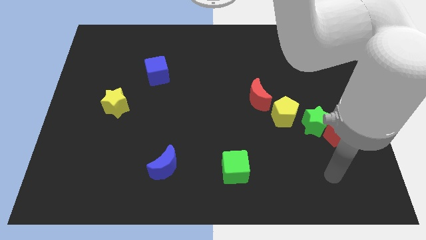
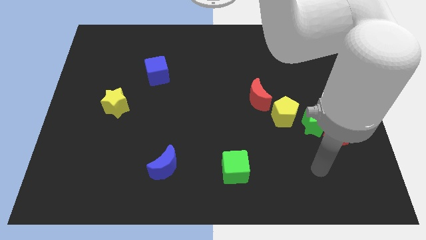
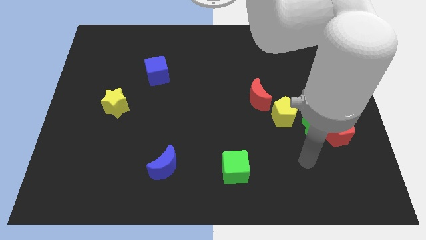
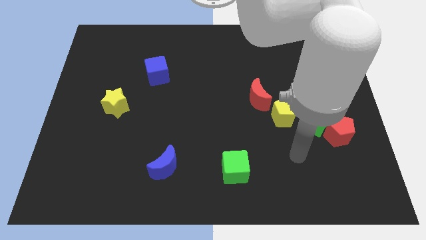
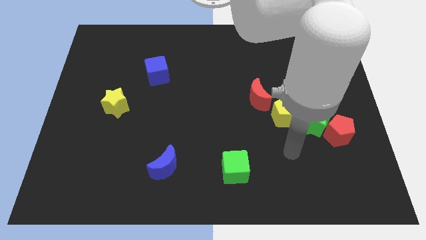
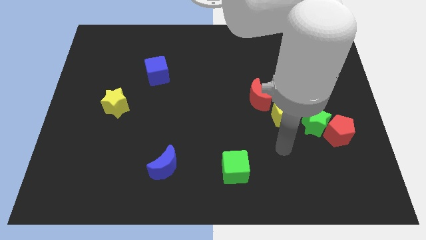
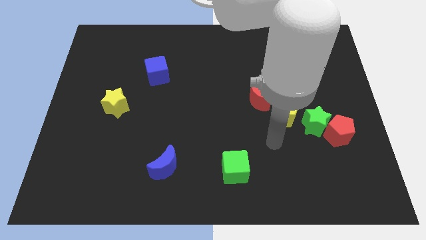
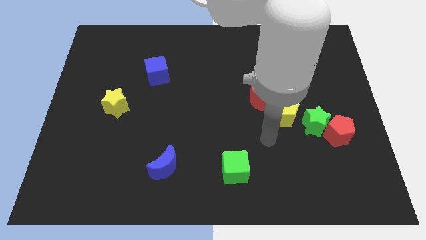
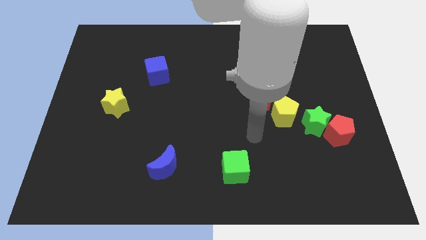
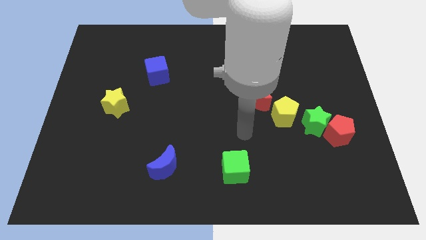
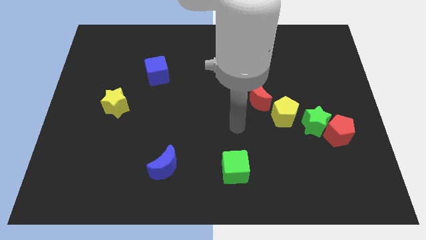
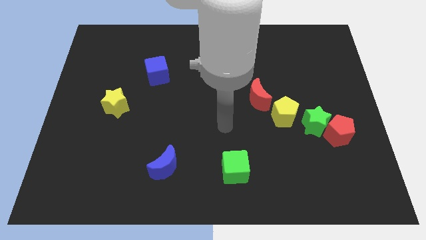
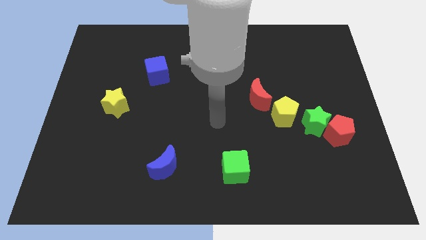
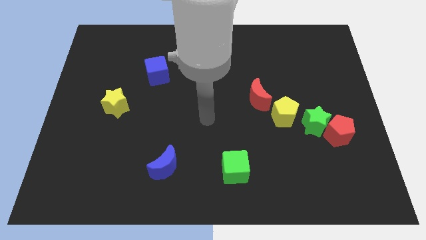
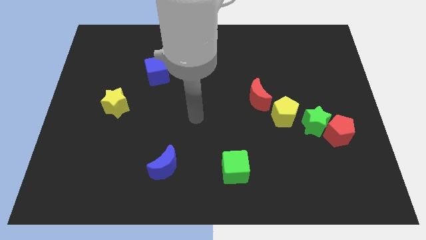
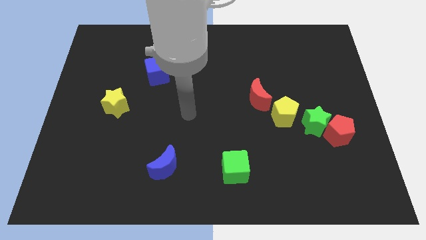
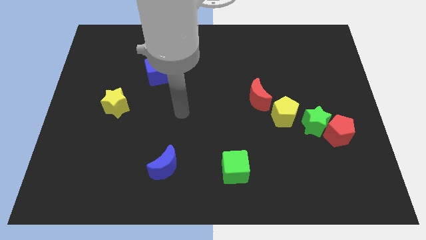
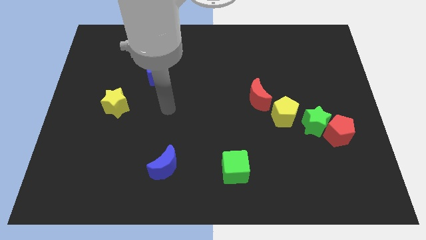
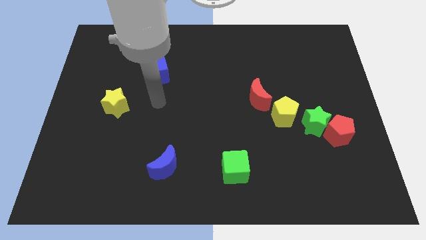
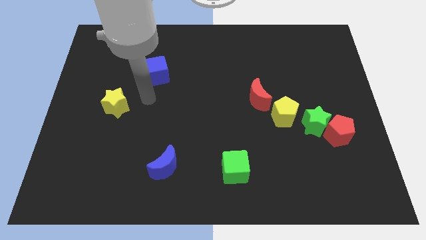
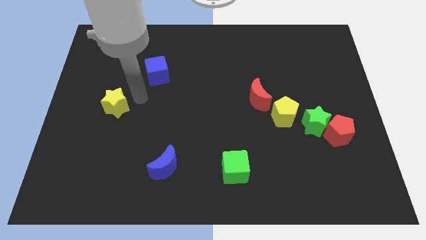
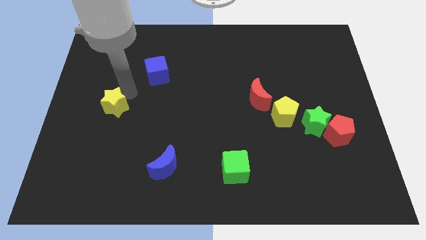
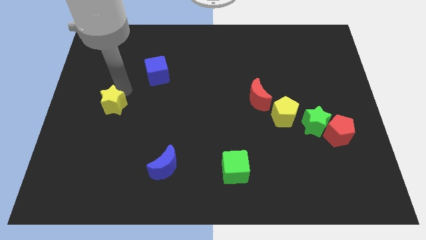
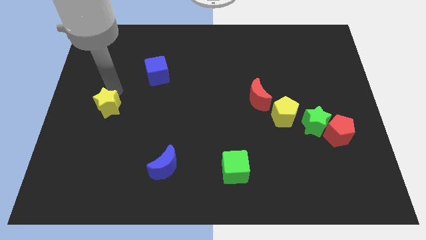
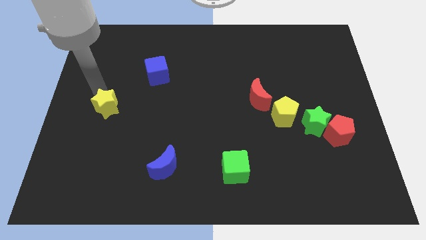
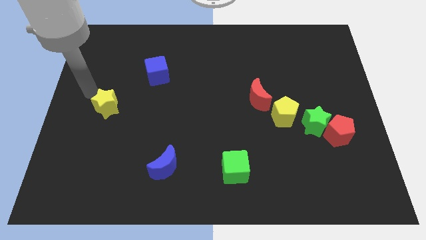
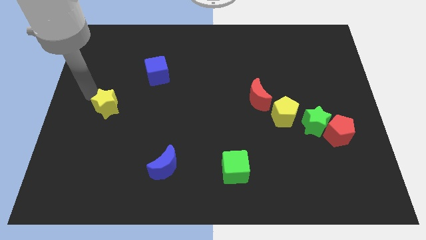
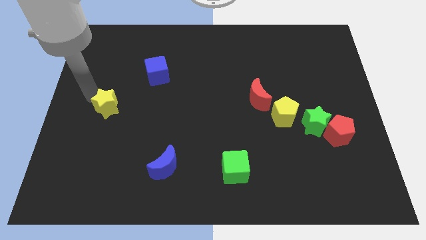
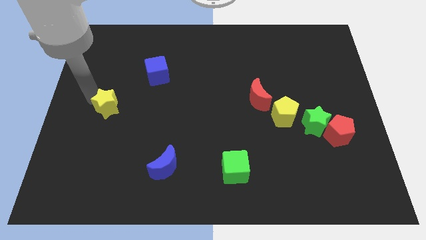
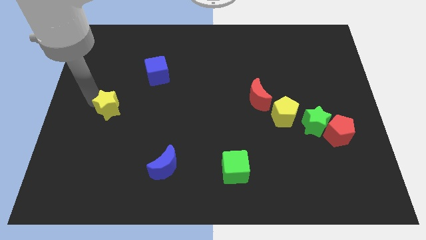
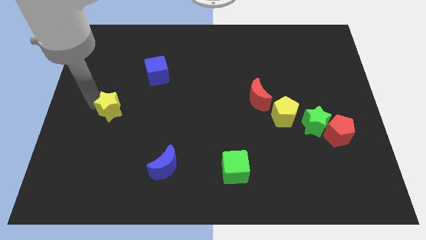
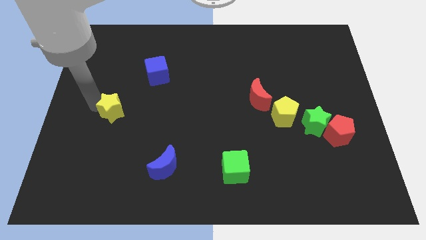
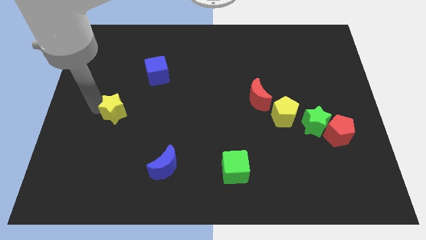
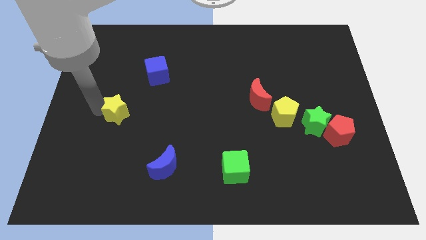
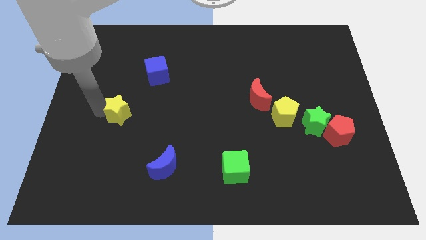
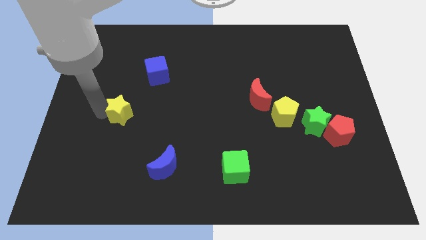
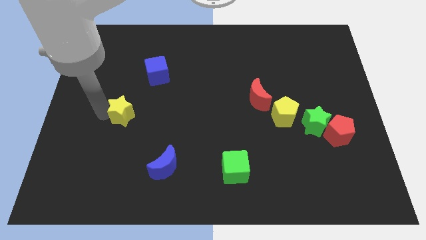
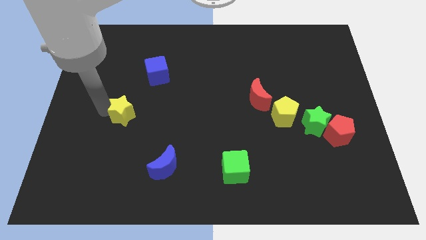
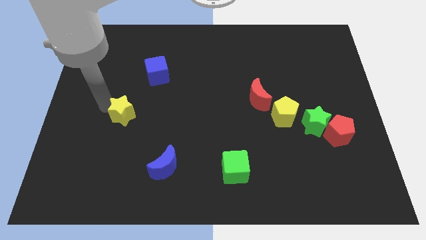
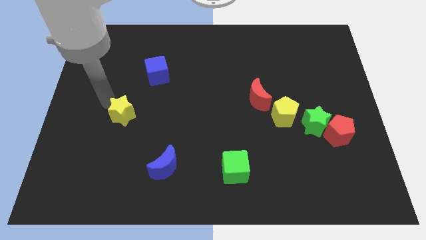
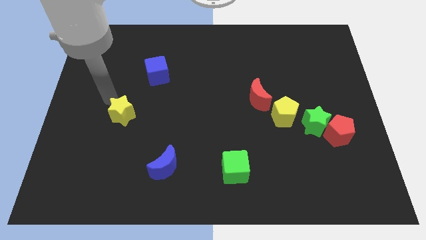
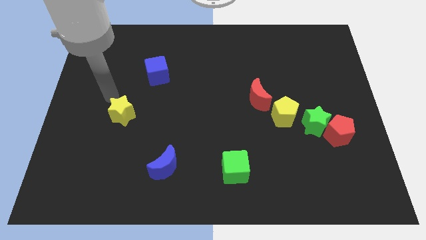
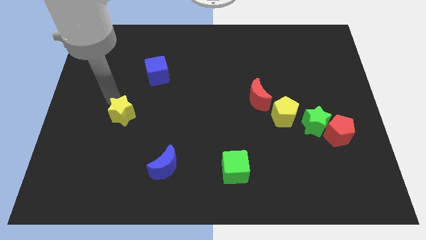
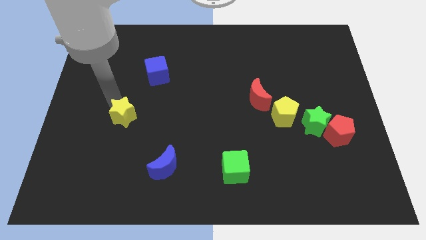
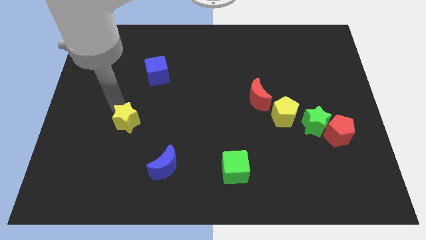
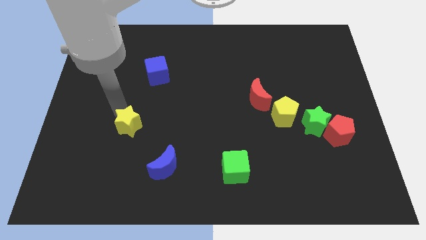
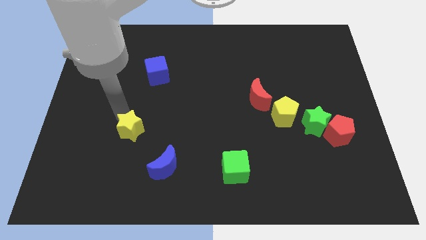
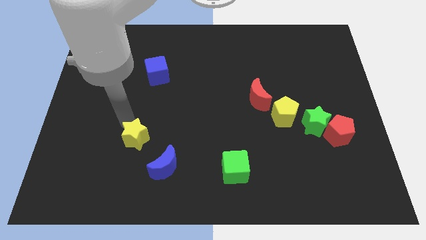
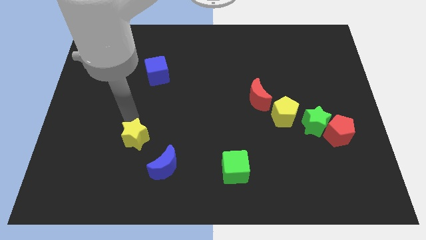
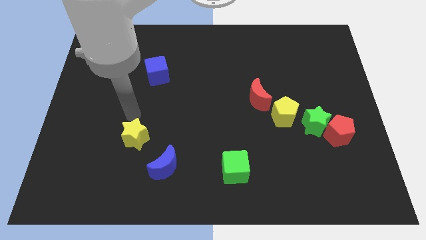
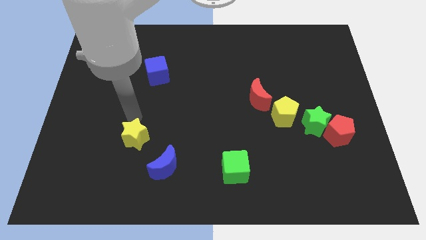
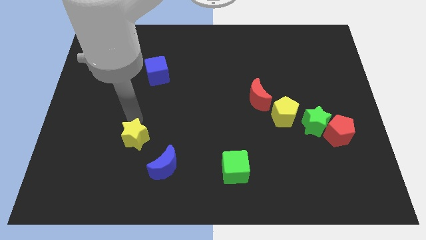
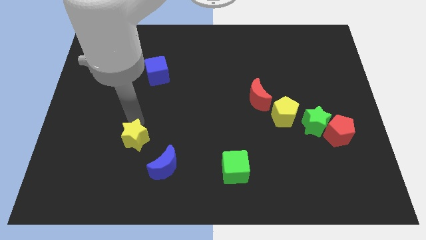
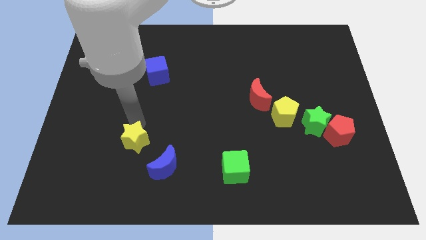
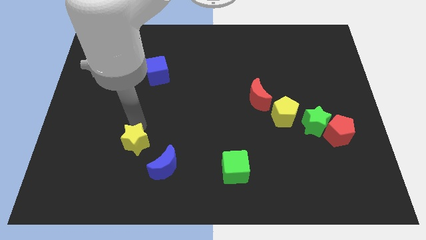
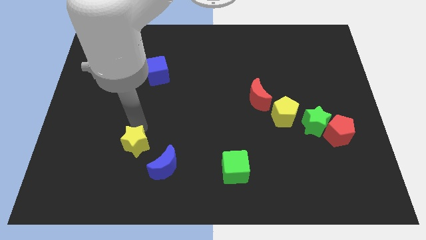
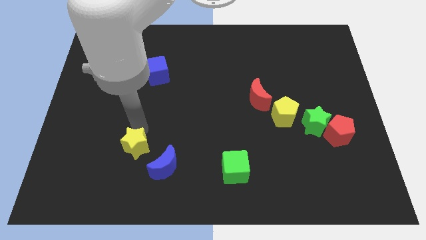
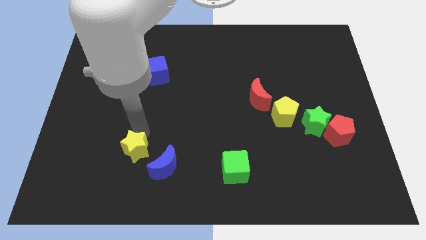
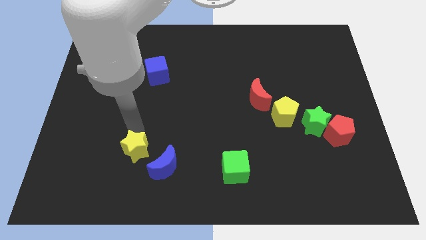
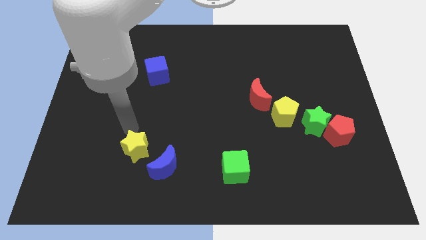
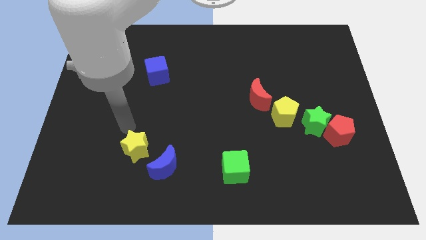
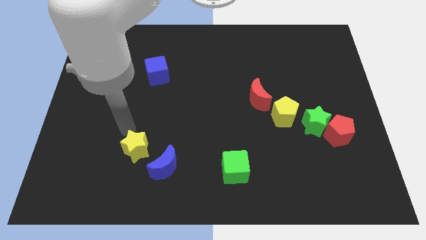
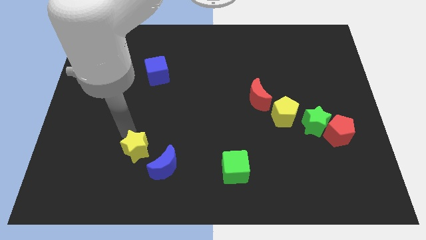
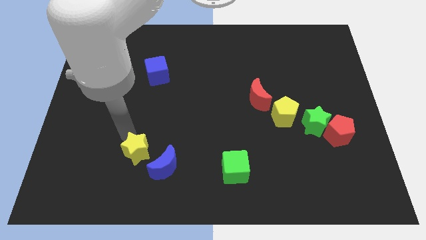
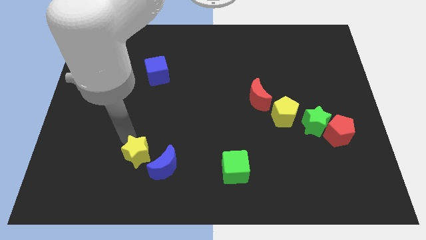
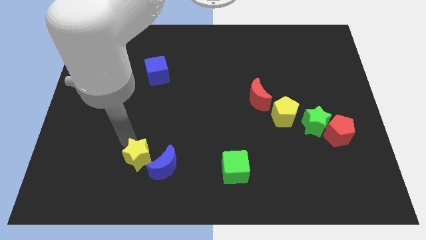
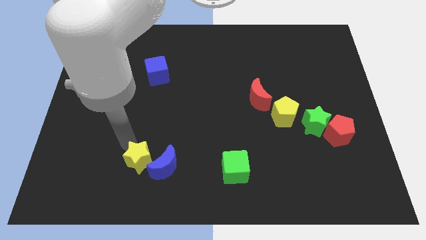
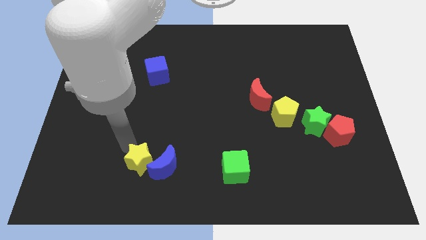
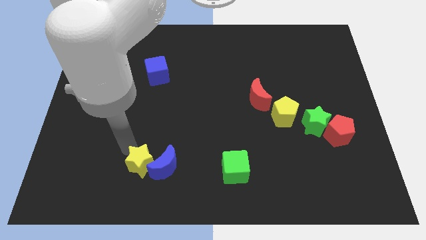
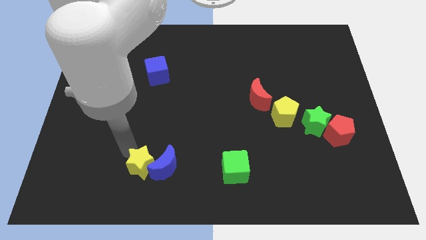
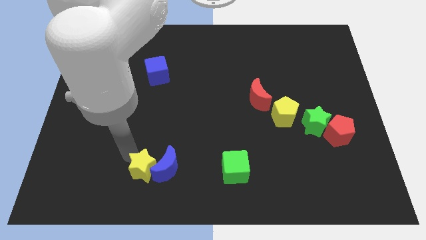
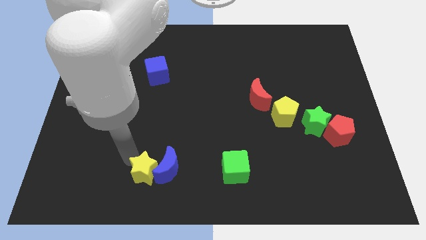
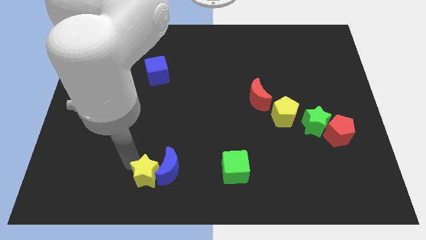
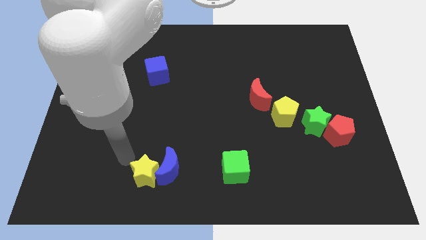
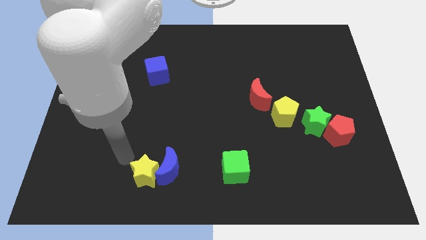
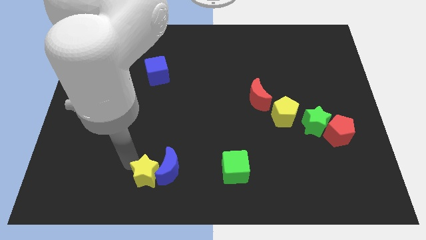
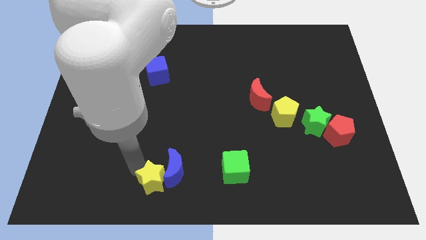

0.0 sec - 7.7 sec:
put the yellow star to the bottom
